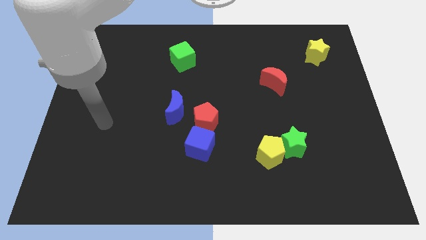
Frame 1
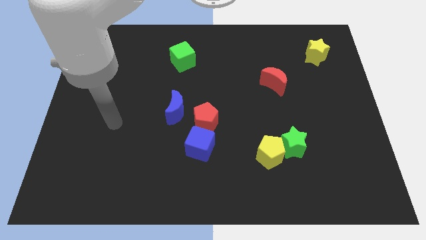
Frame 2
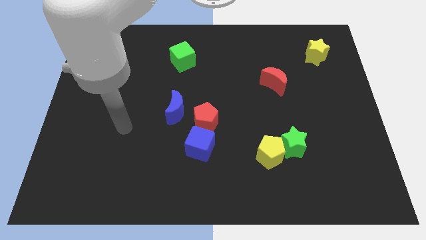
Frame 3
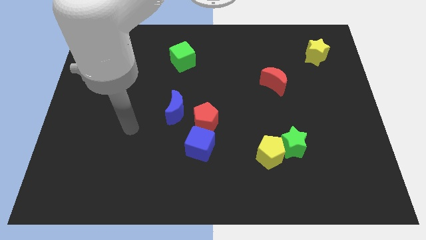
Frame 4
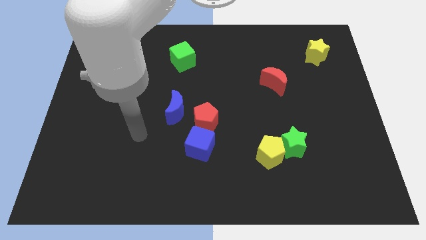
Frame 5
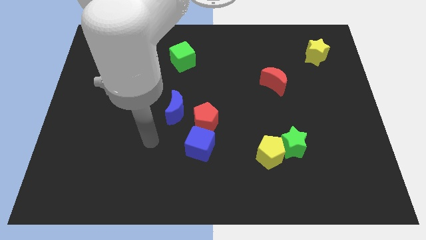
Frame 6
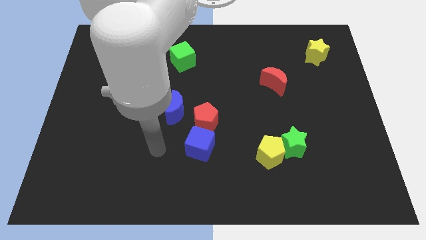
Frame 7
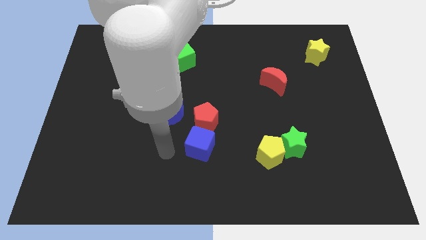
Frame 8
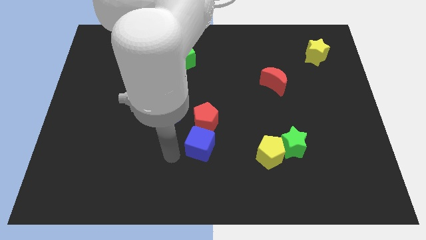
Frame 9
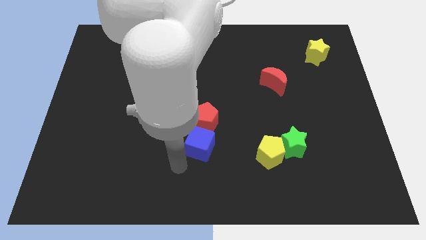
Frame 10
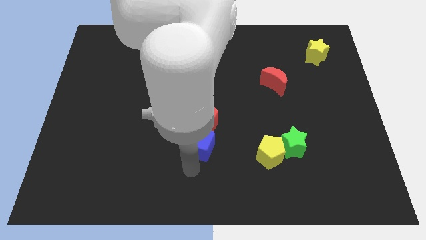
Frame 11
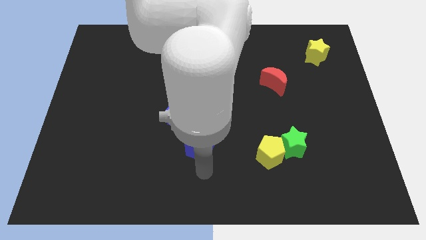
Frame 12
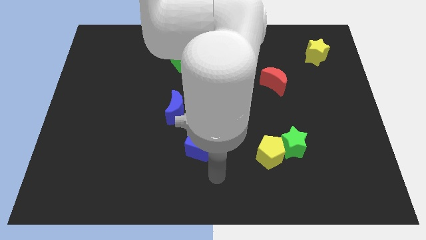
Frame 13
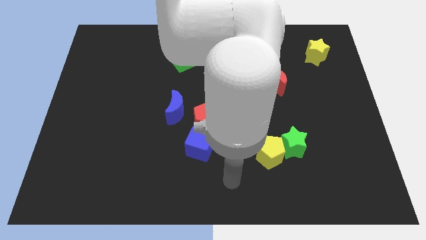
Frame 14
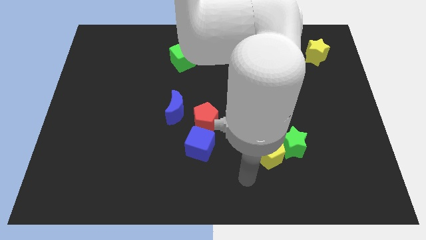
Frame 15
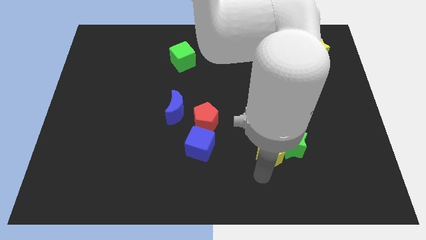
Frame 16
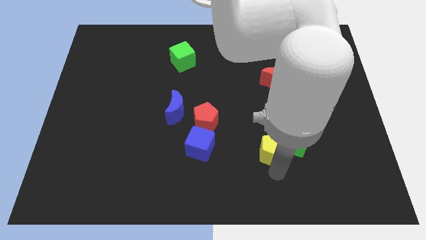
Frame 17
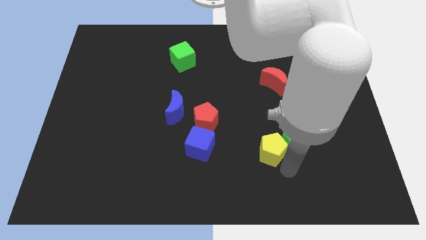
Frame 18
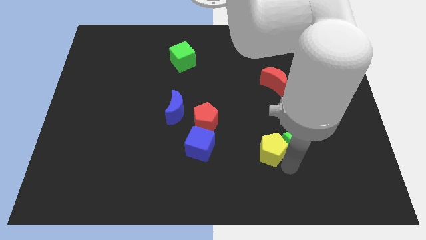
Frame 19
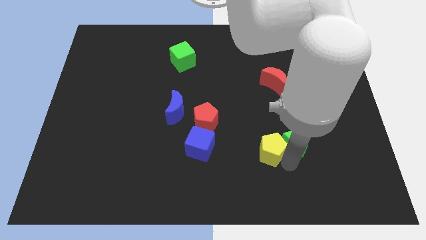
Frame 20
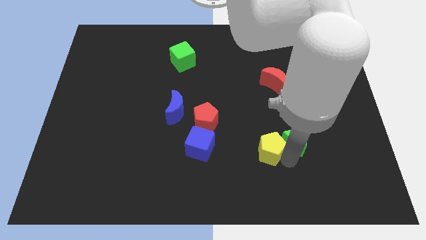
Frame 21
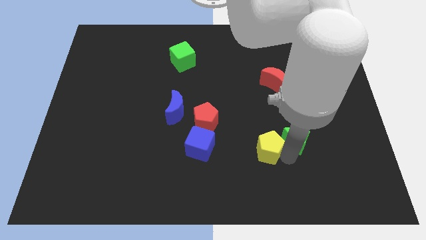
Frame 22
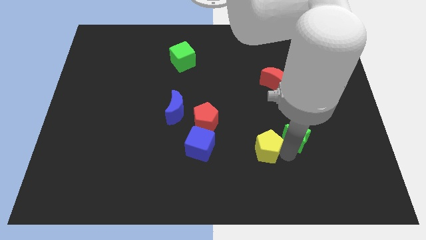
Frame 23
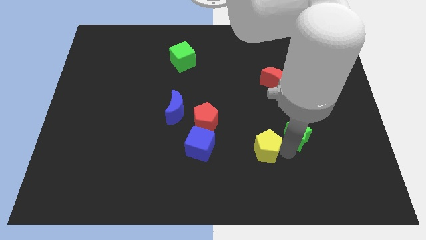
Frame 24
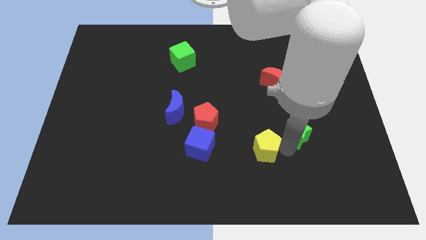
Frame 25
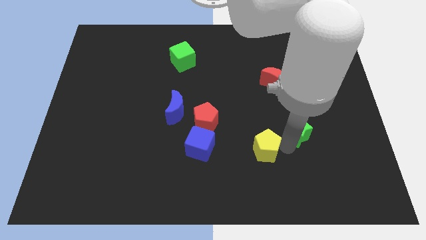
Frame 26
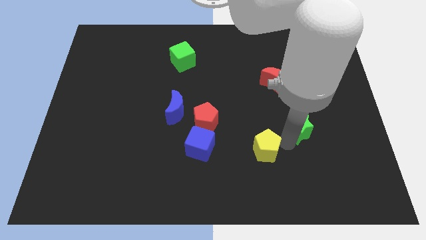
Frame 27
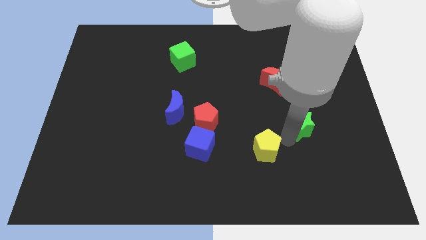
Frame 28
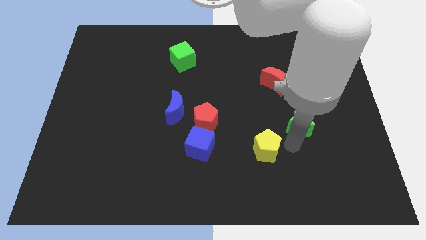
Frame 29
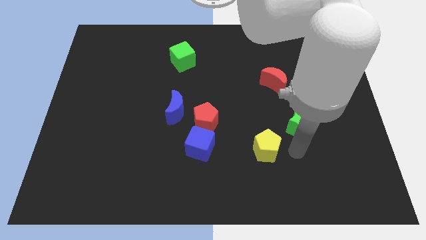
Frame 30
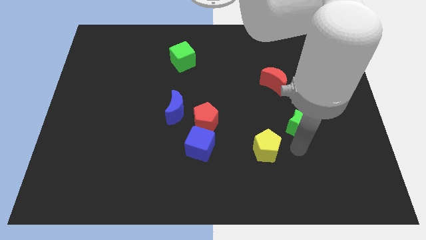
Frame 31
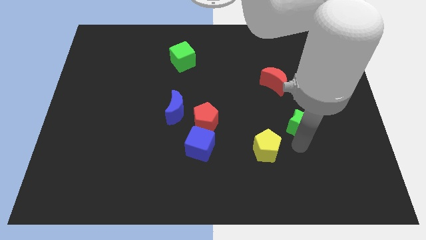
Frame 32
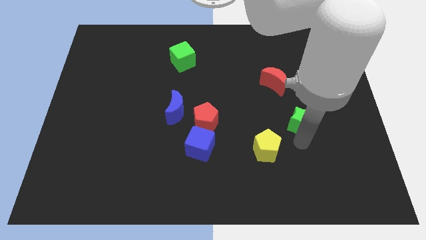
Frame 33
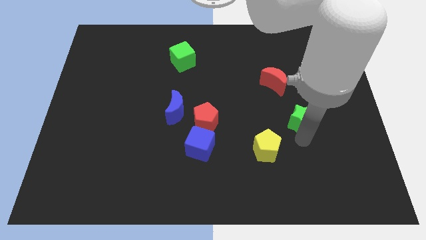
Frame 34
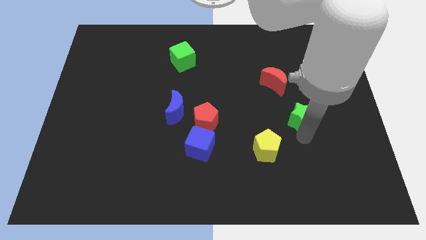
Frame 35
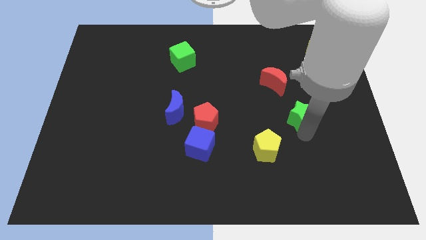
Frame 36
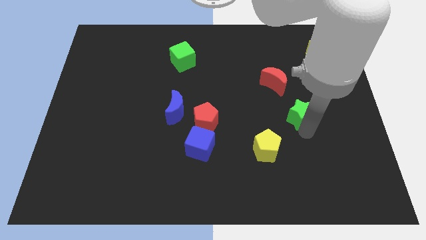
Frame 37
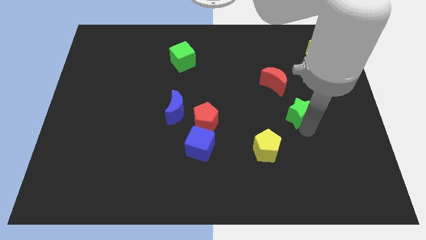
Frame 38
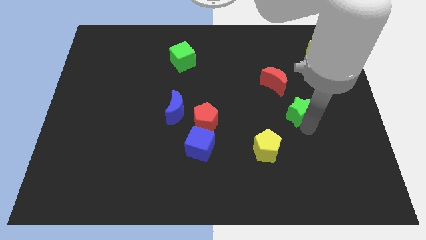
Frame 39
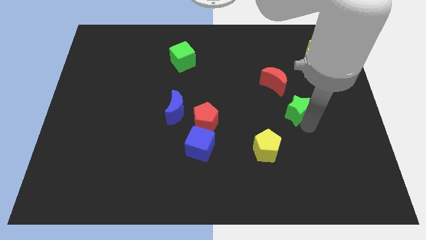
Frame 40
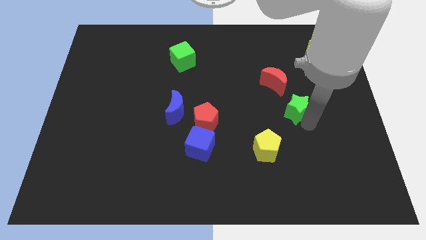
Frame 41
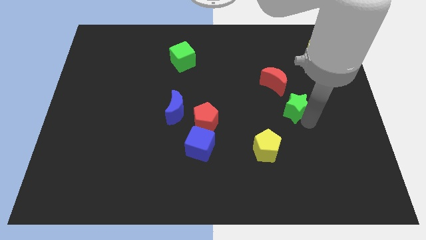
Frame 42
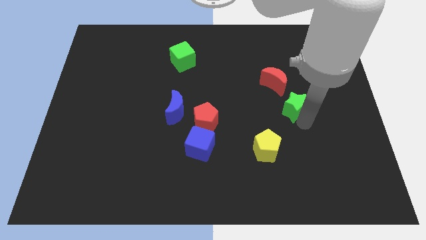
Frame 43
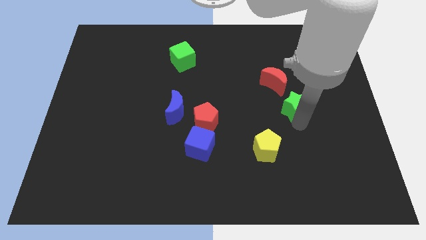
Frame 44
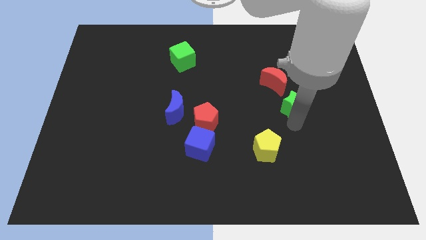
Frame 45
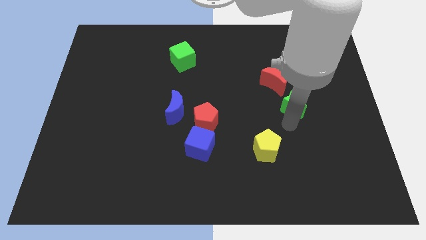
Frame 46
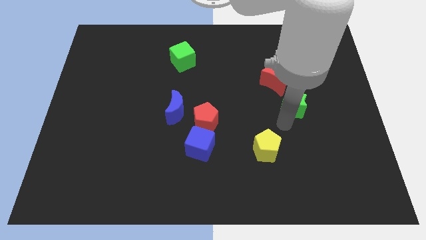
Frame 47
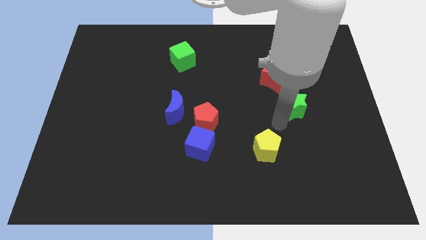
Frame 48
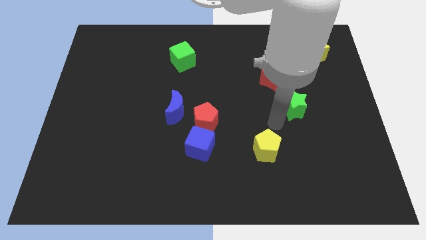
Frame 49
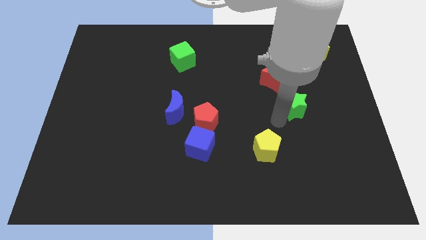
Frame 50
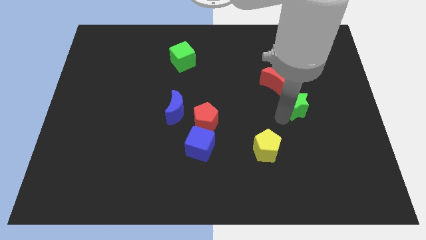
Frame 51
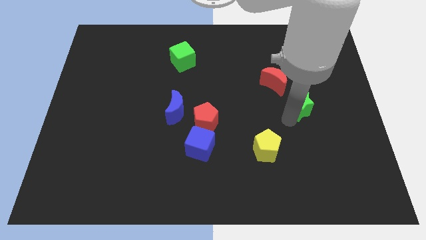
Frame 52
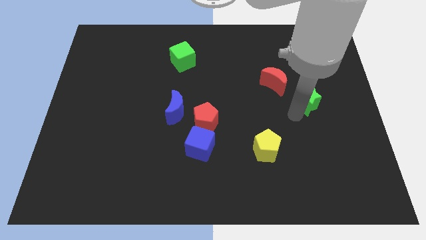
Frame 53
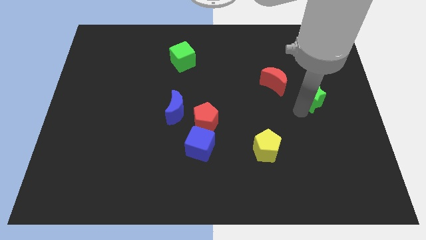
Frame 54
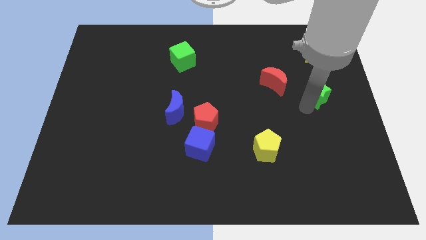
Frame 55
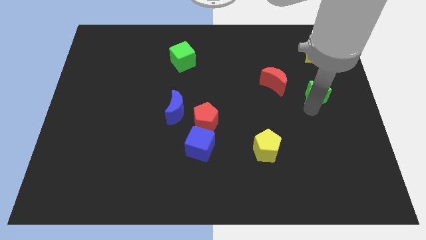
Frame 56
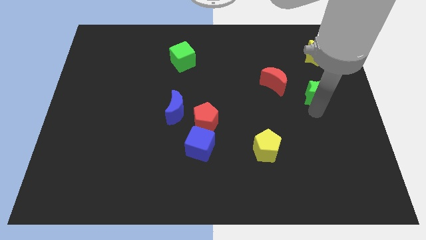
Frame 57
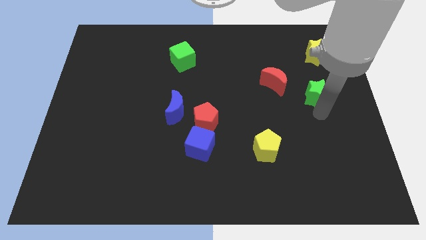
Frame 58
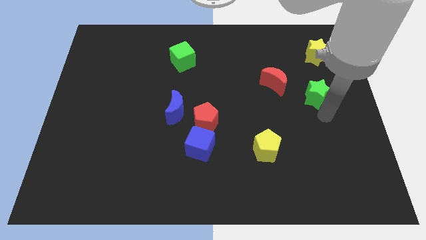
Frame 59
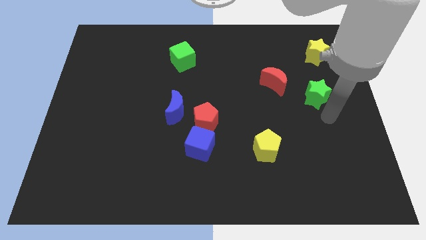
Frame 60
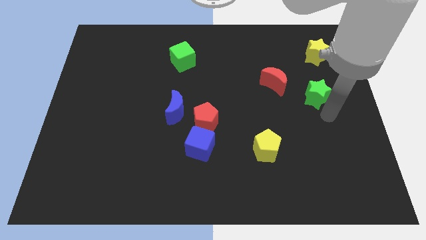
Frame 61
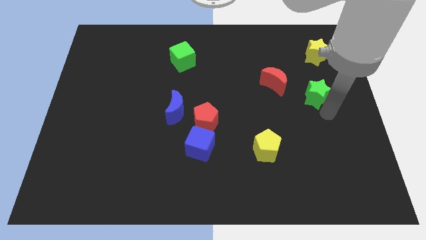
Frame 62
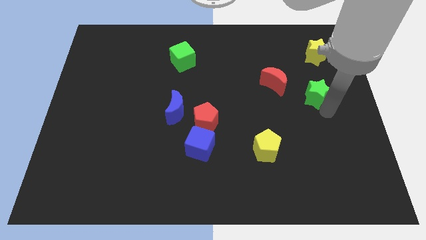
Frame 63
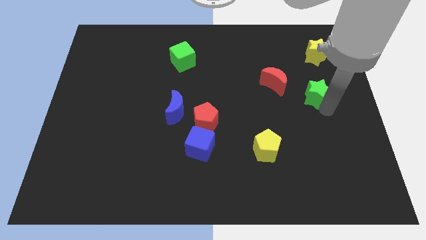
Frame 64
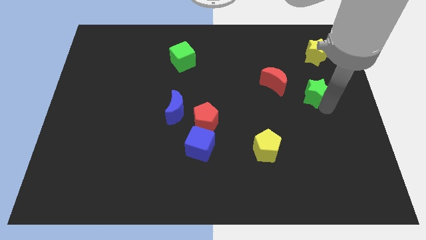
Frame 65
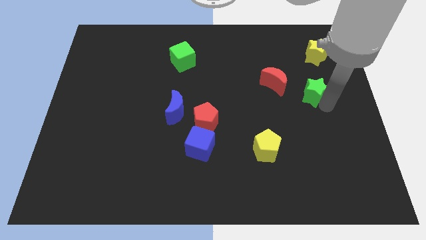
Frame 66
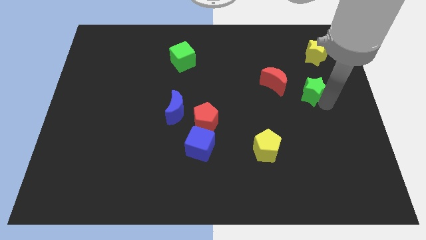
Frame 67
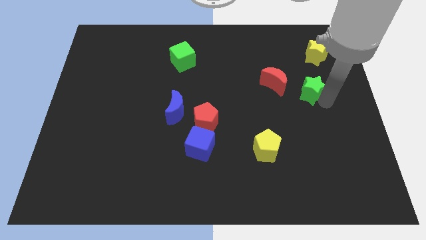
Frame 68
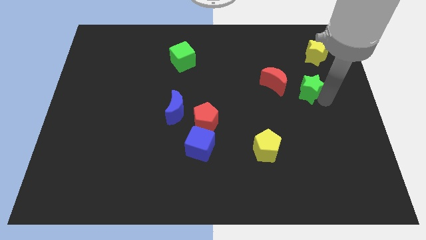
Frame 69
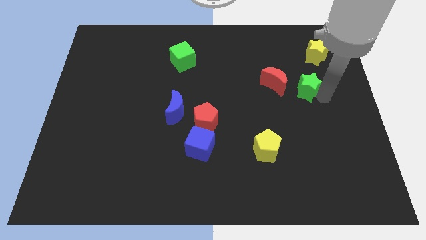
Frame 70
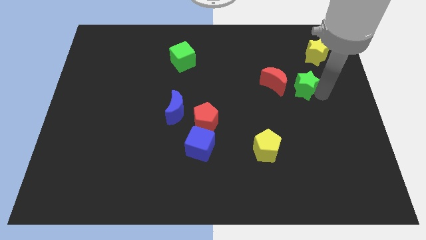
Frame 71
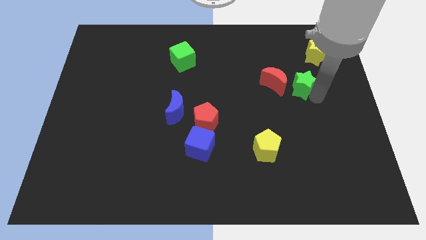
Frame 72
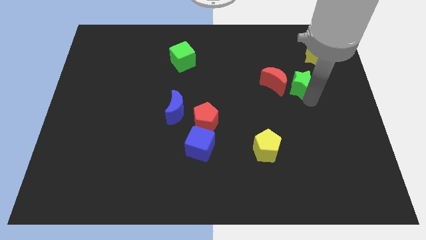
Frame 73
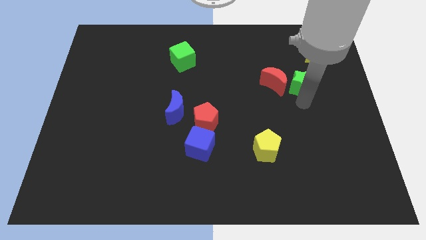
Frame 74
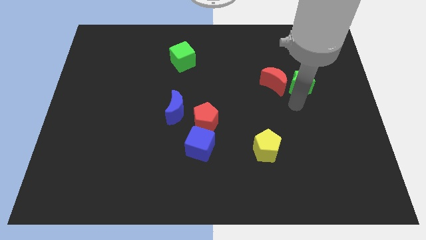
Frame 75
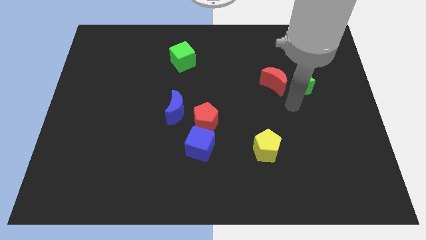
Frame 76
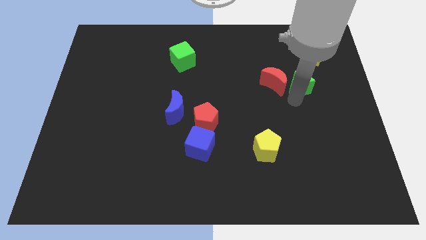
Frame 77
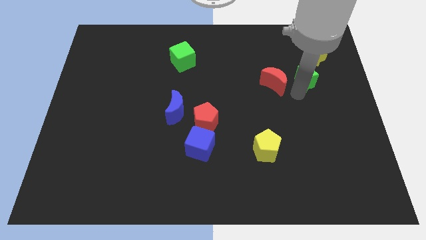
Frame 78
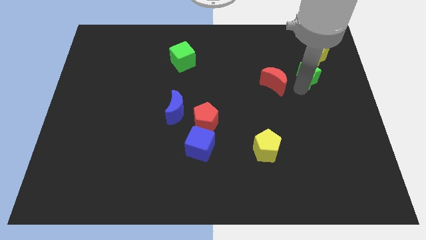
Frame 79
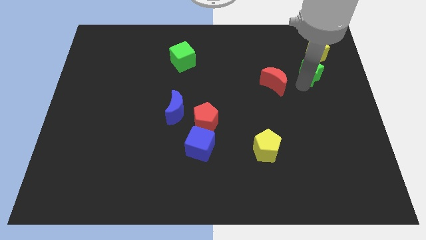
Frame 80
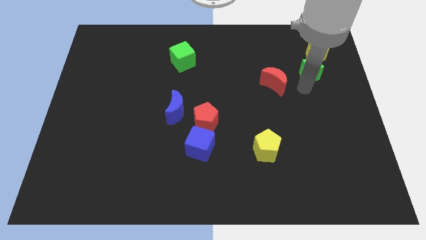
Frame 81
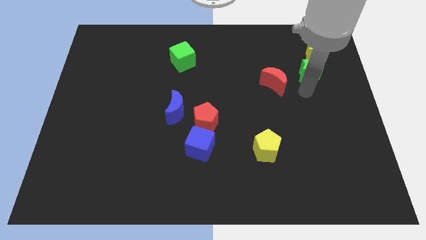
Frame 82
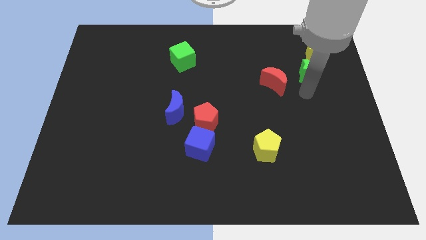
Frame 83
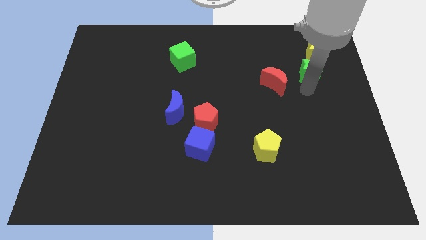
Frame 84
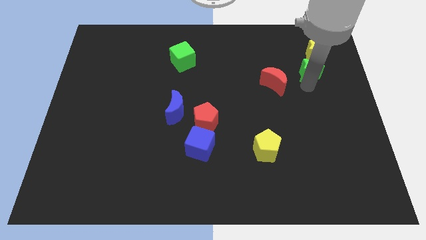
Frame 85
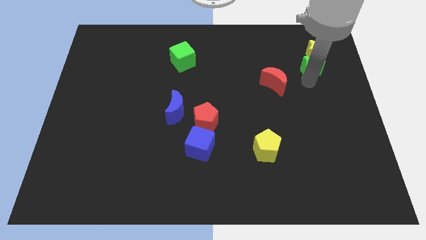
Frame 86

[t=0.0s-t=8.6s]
move the green star towards the yellow star
